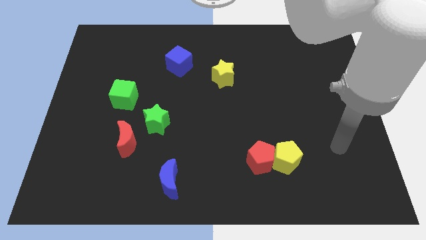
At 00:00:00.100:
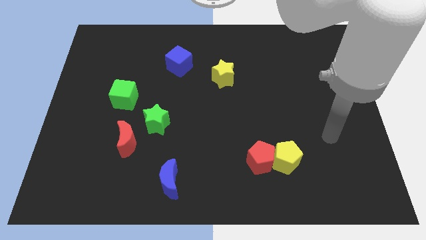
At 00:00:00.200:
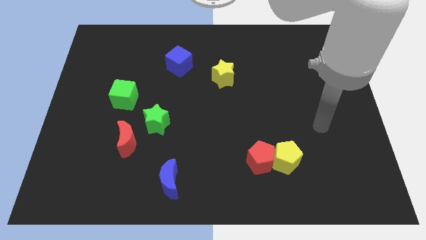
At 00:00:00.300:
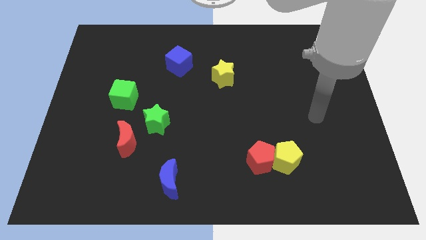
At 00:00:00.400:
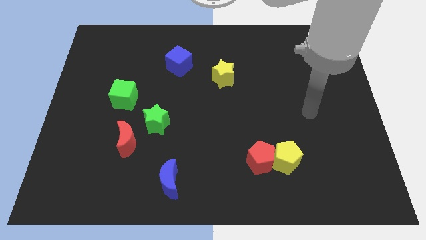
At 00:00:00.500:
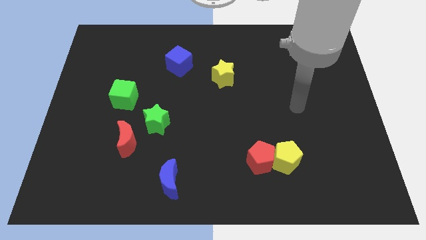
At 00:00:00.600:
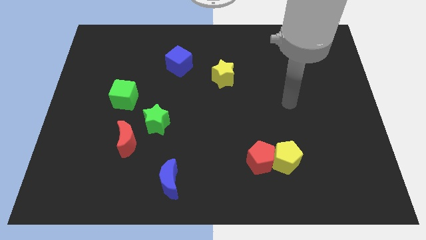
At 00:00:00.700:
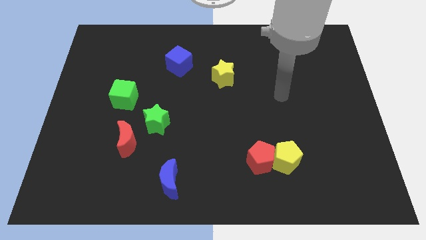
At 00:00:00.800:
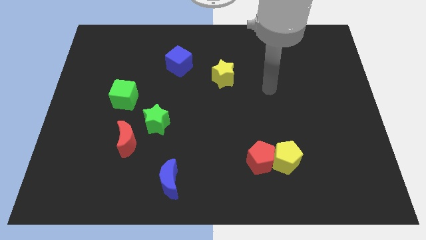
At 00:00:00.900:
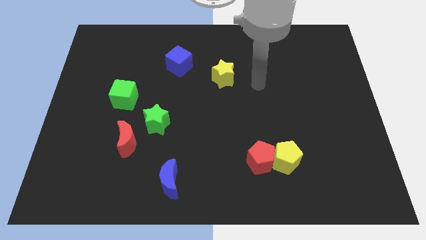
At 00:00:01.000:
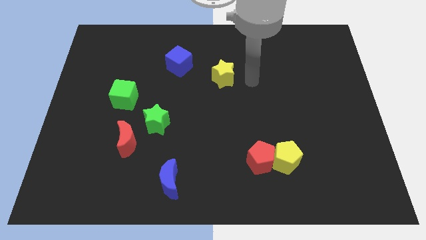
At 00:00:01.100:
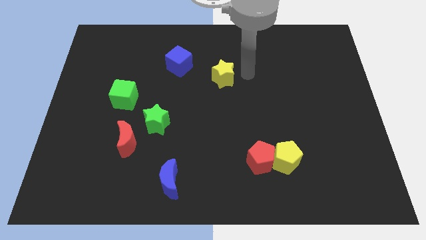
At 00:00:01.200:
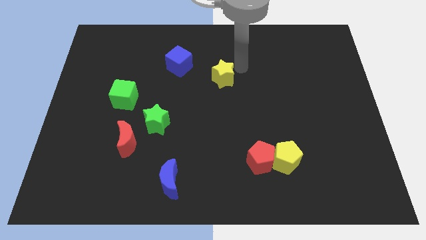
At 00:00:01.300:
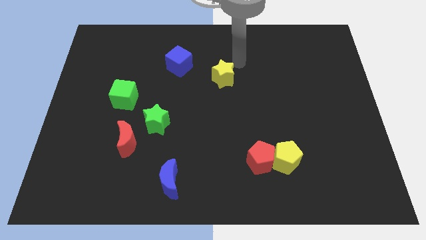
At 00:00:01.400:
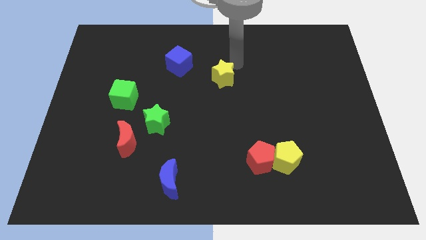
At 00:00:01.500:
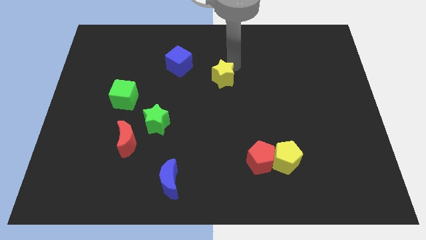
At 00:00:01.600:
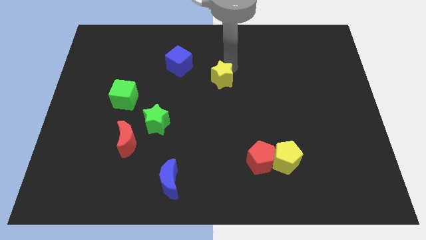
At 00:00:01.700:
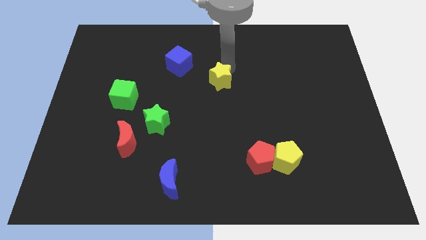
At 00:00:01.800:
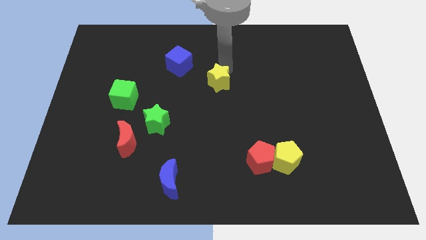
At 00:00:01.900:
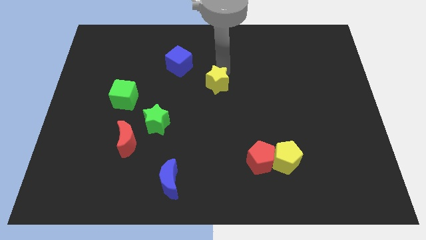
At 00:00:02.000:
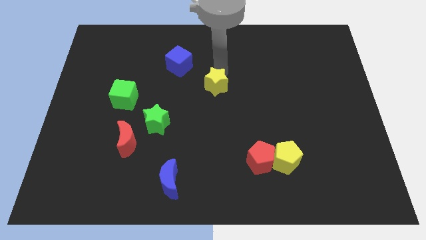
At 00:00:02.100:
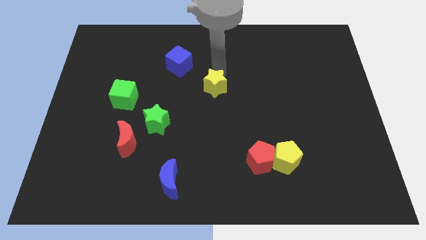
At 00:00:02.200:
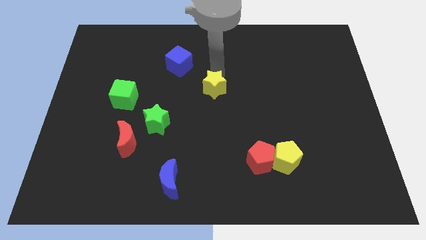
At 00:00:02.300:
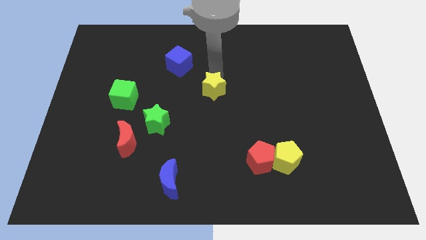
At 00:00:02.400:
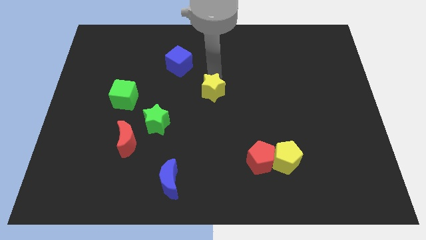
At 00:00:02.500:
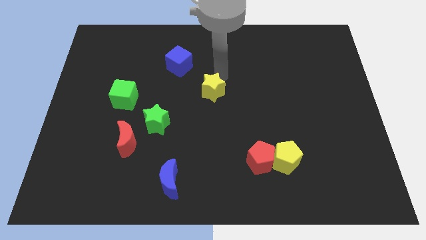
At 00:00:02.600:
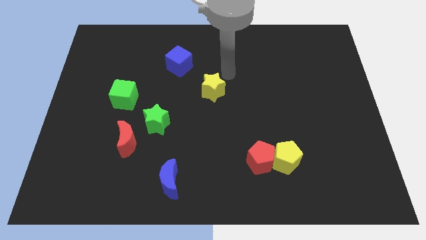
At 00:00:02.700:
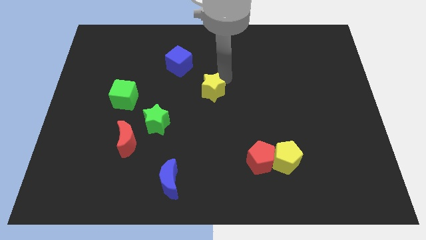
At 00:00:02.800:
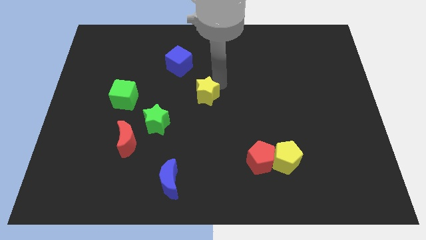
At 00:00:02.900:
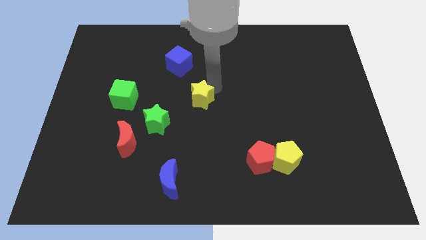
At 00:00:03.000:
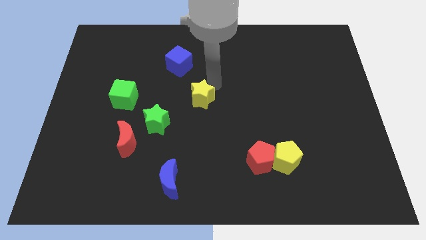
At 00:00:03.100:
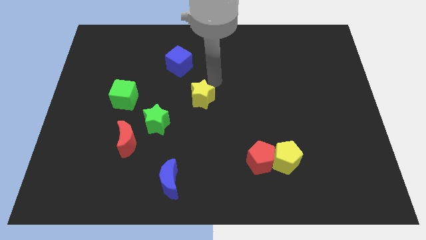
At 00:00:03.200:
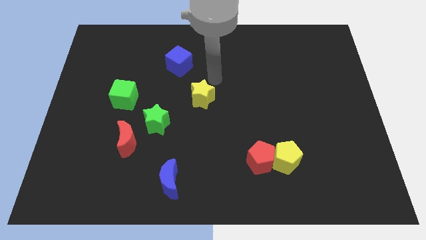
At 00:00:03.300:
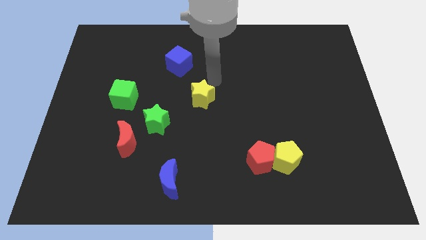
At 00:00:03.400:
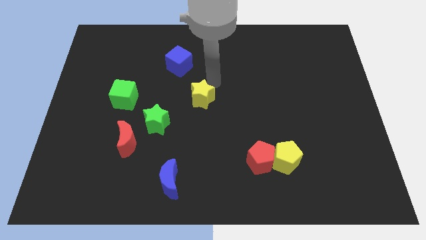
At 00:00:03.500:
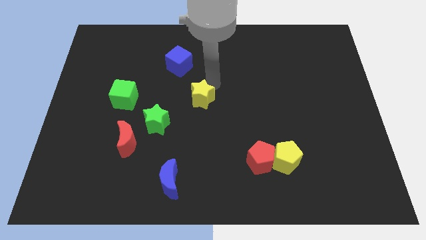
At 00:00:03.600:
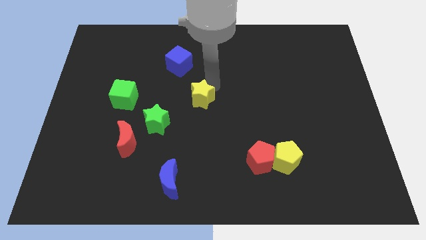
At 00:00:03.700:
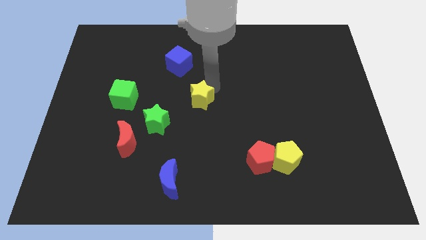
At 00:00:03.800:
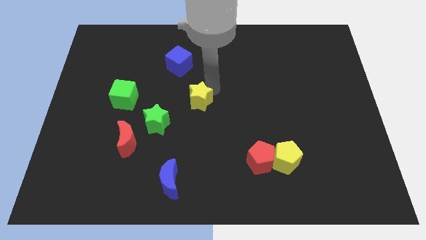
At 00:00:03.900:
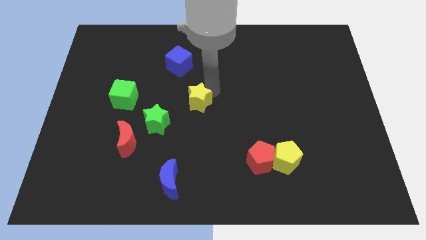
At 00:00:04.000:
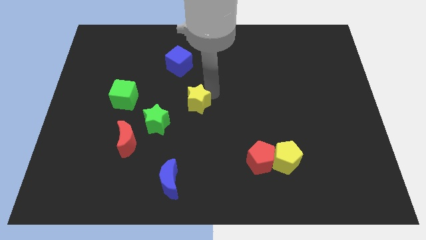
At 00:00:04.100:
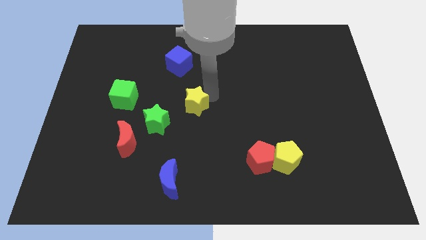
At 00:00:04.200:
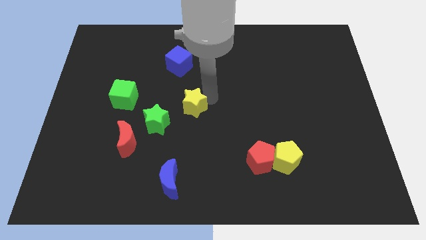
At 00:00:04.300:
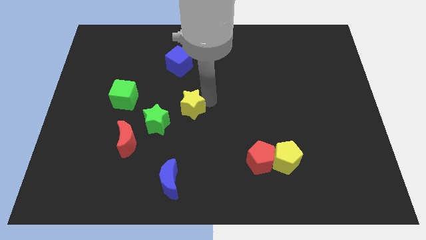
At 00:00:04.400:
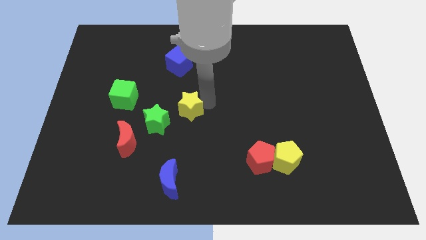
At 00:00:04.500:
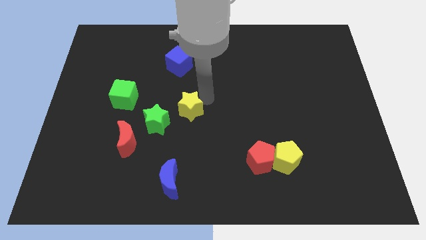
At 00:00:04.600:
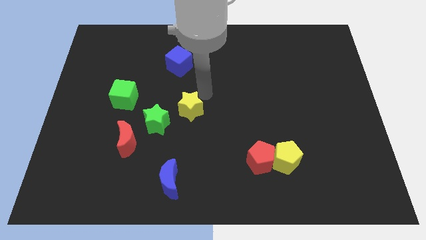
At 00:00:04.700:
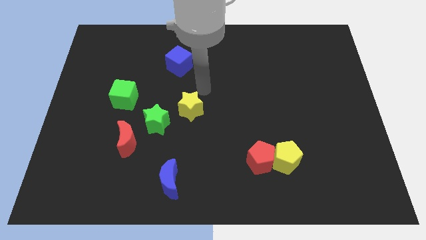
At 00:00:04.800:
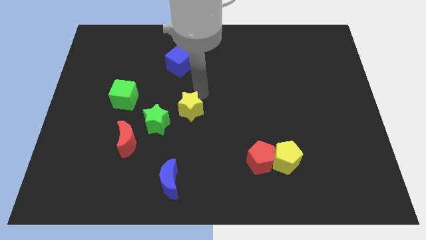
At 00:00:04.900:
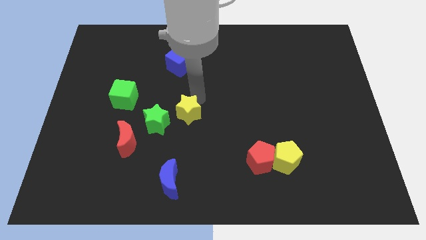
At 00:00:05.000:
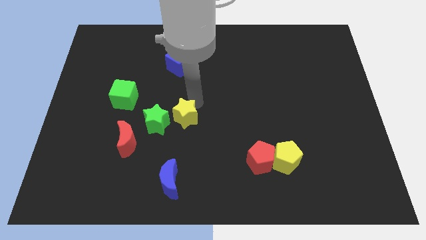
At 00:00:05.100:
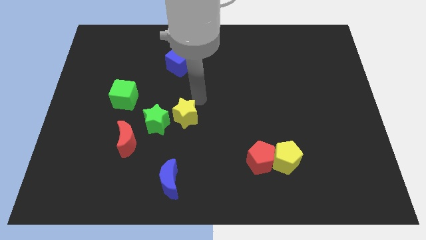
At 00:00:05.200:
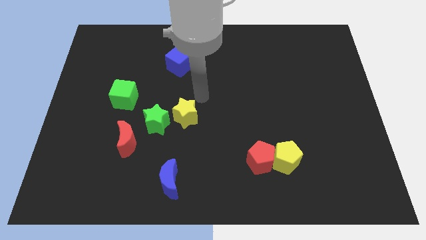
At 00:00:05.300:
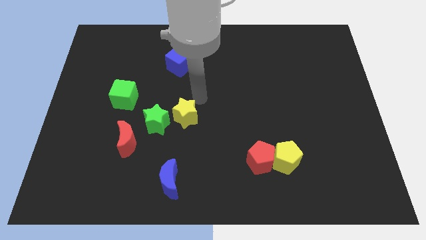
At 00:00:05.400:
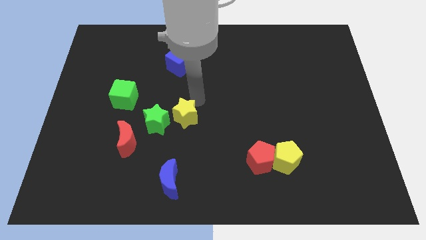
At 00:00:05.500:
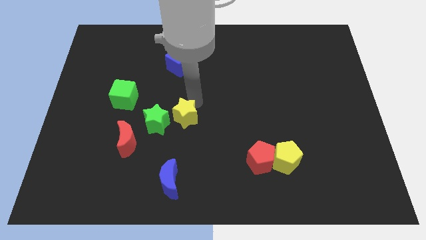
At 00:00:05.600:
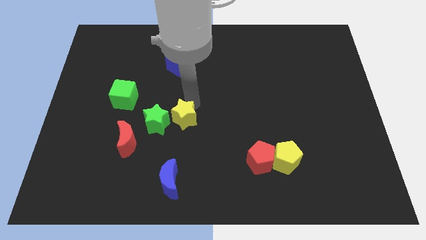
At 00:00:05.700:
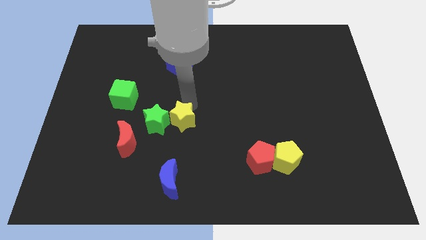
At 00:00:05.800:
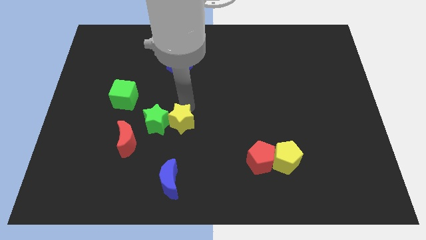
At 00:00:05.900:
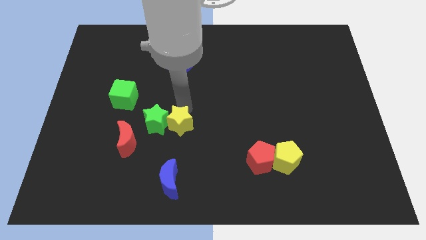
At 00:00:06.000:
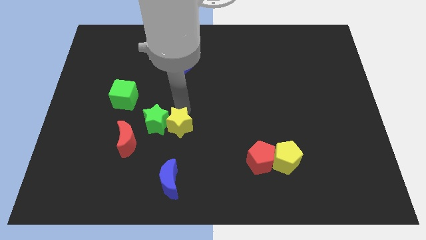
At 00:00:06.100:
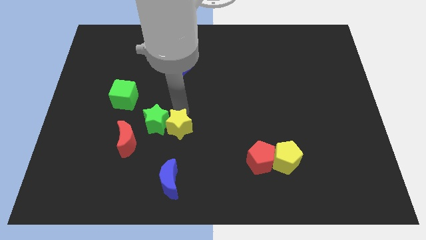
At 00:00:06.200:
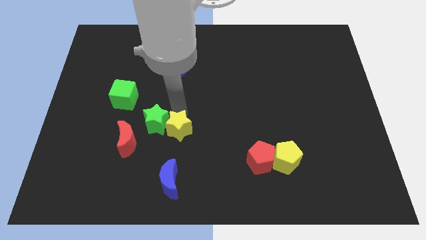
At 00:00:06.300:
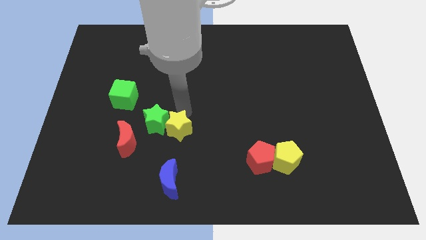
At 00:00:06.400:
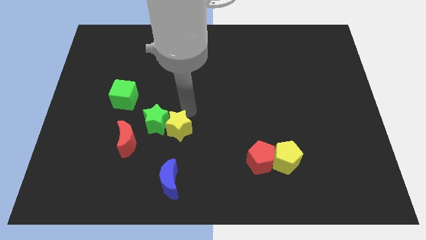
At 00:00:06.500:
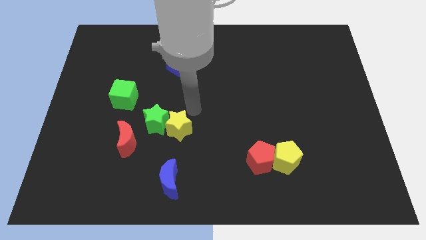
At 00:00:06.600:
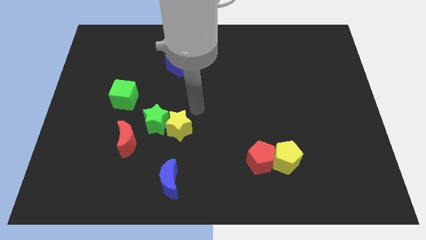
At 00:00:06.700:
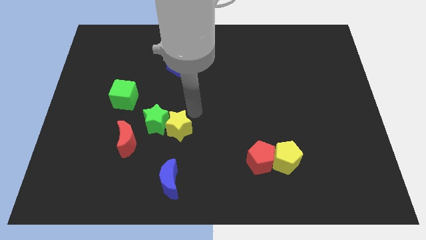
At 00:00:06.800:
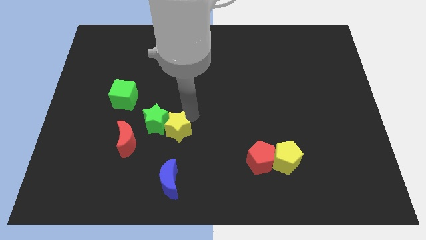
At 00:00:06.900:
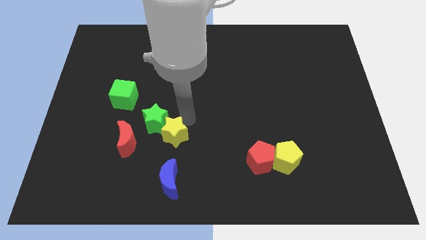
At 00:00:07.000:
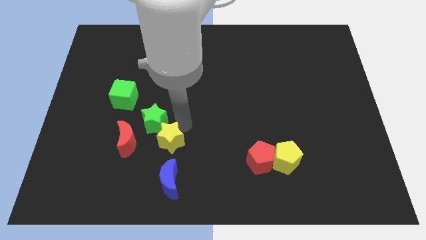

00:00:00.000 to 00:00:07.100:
slide the yellow star down and to the left diagonally

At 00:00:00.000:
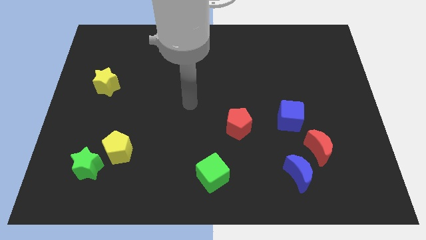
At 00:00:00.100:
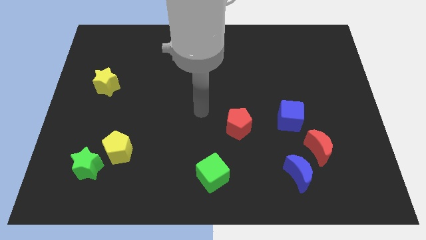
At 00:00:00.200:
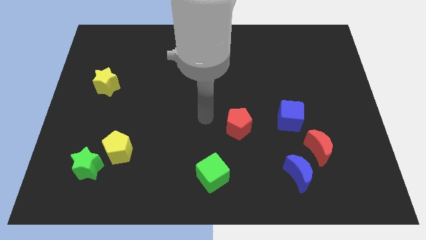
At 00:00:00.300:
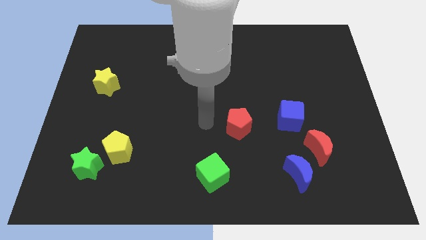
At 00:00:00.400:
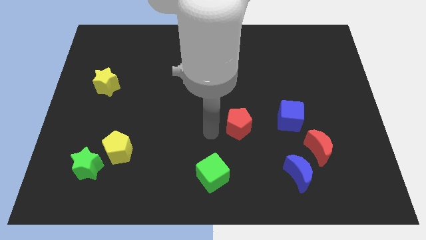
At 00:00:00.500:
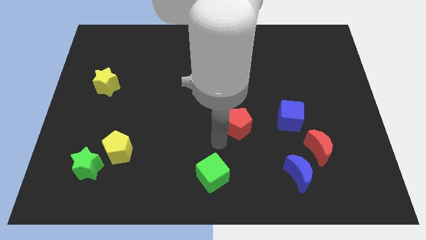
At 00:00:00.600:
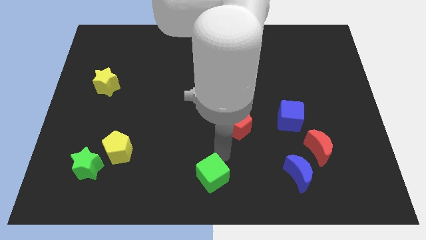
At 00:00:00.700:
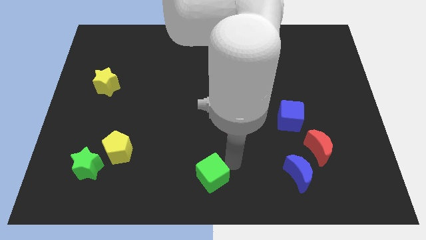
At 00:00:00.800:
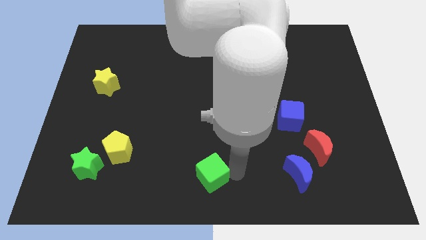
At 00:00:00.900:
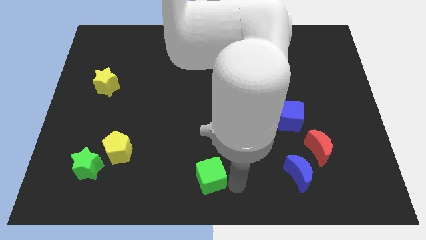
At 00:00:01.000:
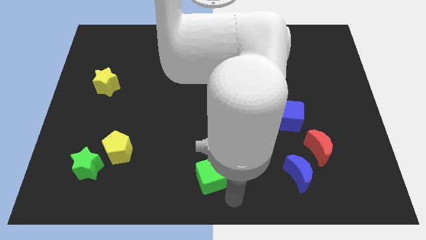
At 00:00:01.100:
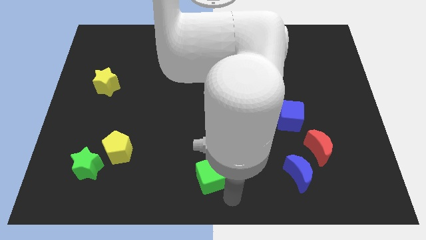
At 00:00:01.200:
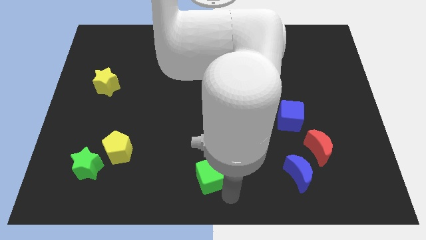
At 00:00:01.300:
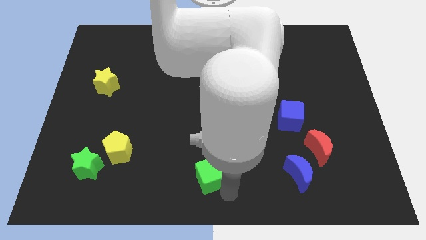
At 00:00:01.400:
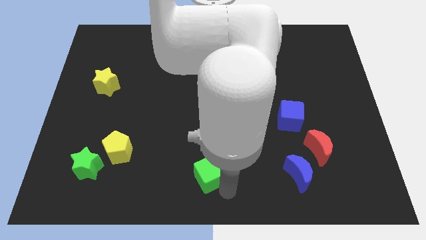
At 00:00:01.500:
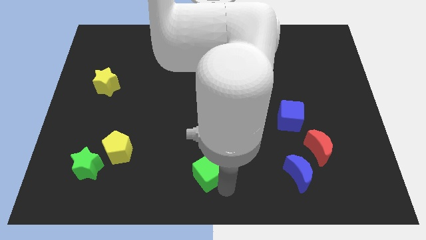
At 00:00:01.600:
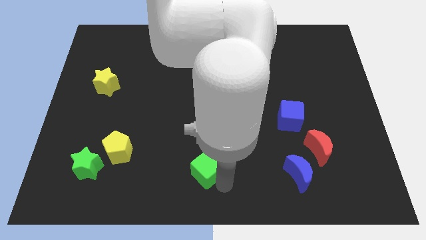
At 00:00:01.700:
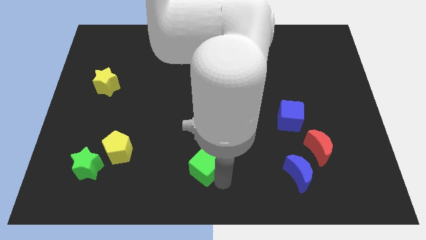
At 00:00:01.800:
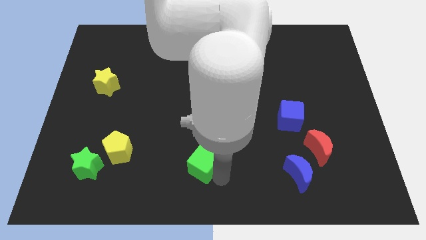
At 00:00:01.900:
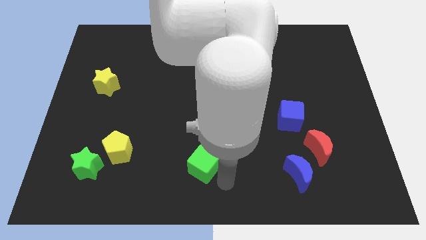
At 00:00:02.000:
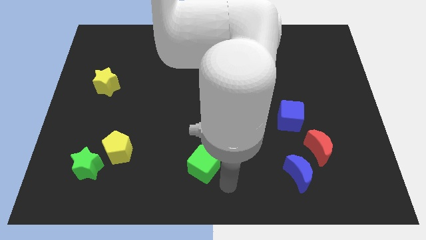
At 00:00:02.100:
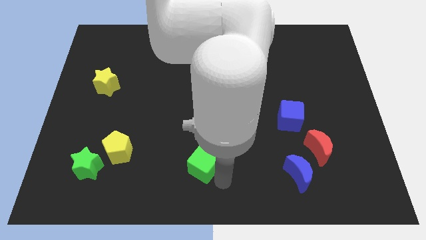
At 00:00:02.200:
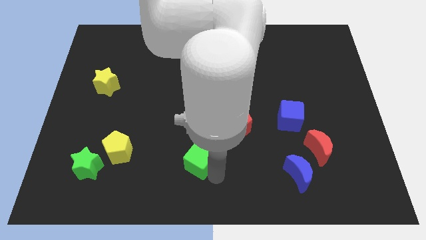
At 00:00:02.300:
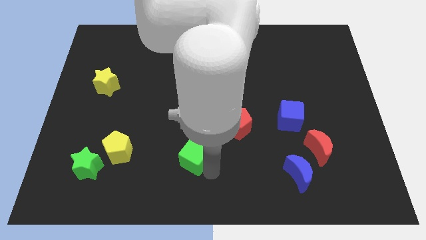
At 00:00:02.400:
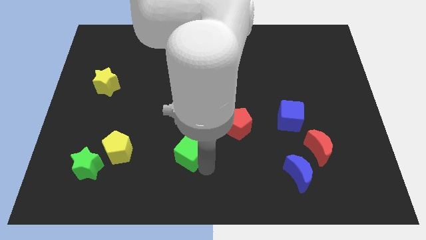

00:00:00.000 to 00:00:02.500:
push the green cube diagonally up and left somewhat
